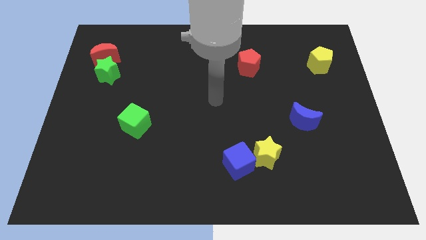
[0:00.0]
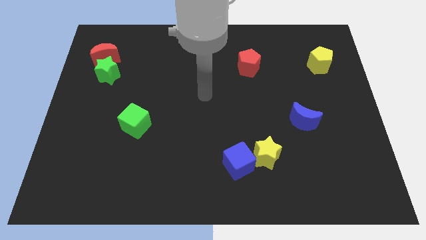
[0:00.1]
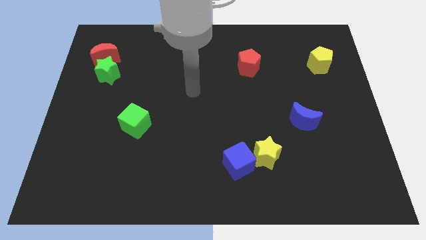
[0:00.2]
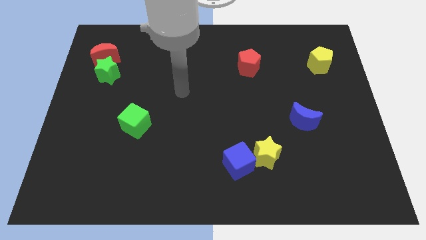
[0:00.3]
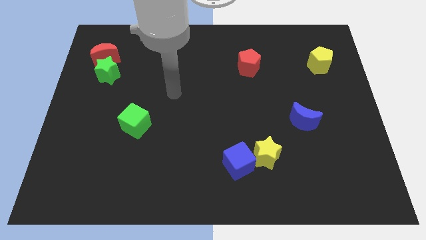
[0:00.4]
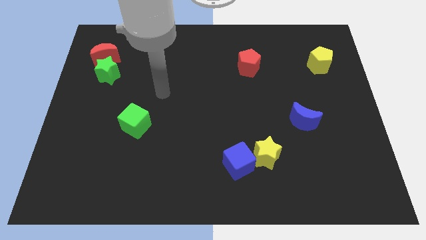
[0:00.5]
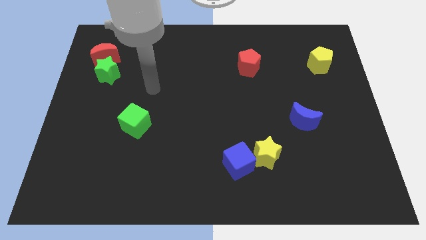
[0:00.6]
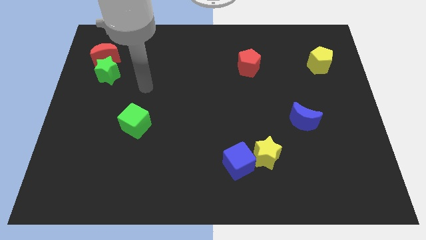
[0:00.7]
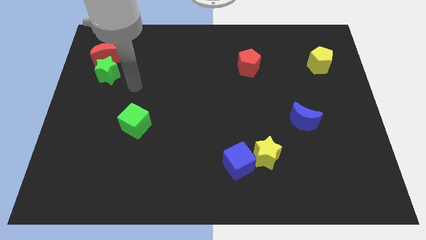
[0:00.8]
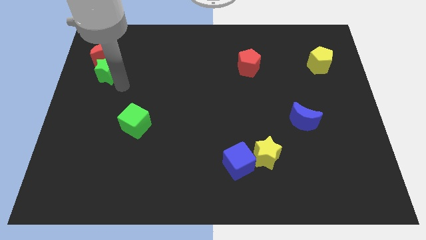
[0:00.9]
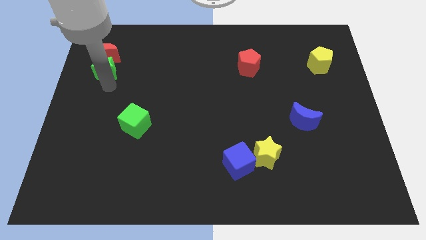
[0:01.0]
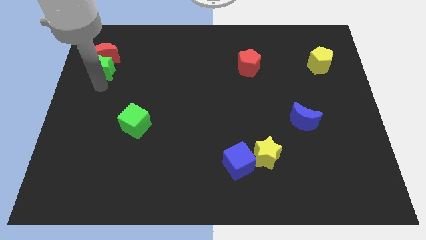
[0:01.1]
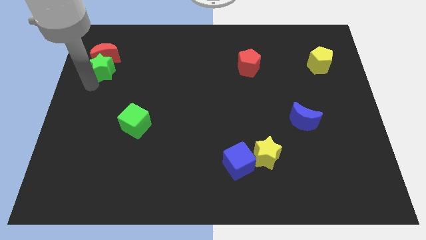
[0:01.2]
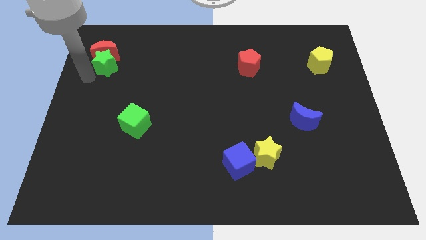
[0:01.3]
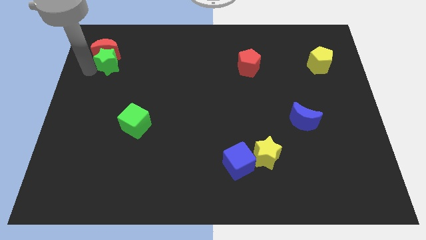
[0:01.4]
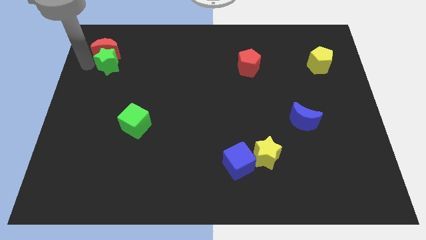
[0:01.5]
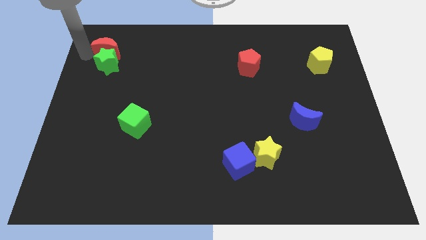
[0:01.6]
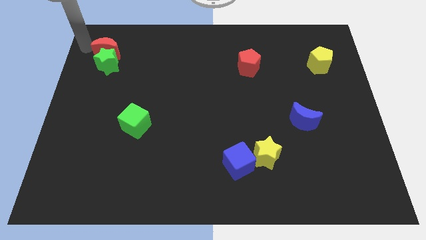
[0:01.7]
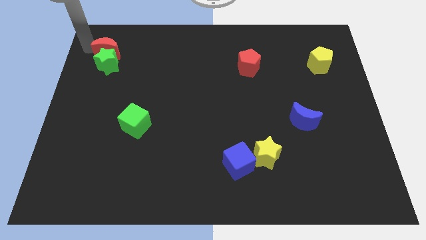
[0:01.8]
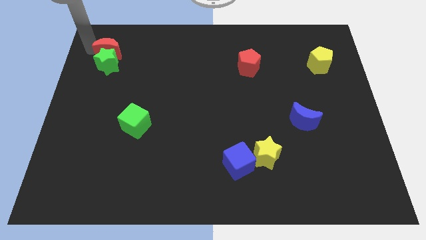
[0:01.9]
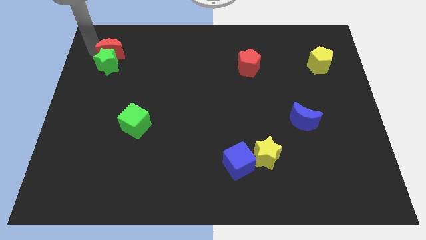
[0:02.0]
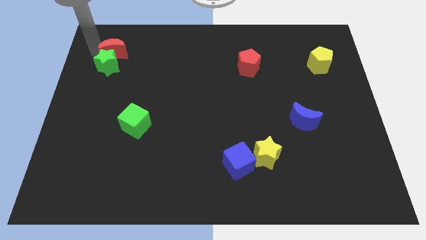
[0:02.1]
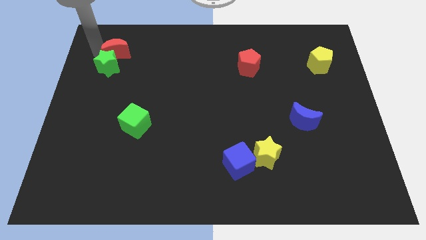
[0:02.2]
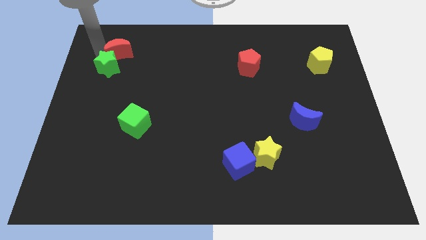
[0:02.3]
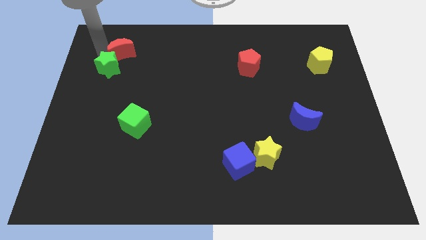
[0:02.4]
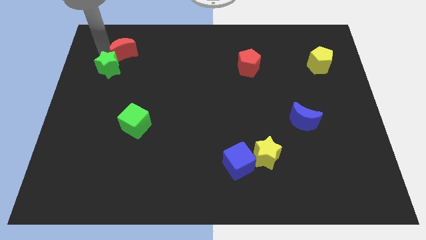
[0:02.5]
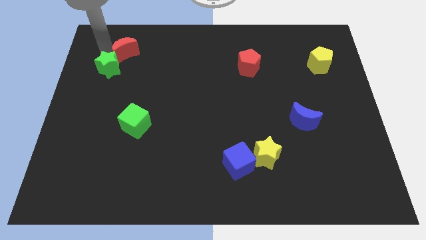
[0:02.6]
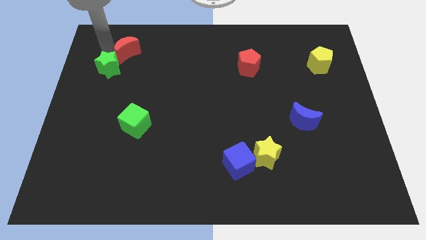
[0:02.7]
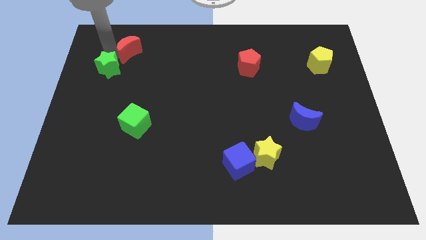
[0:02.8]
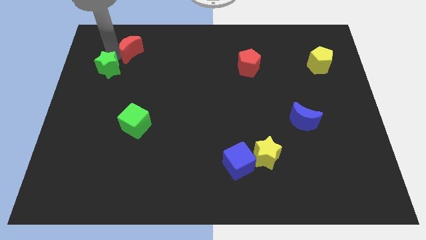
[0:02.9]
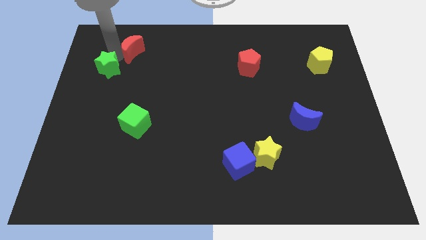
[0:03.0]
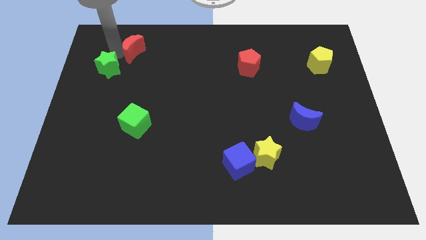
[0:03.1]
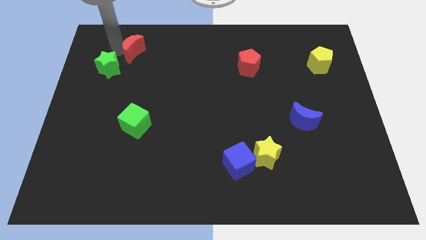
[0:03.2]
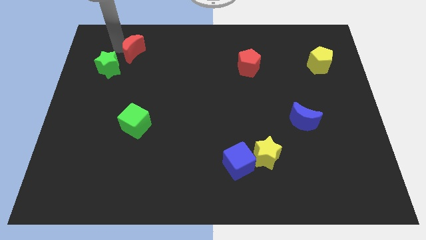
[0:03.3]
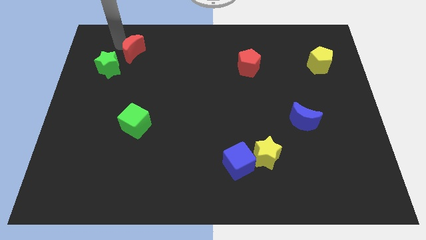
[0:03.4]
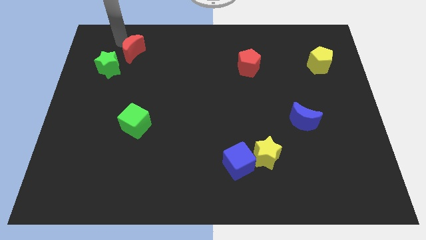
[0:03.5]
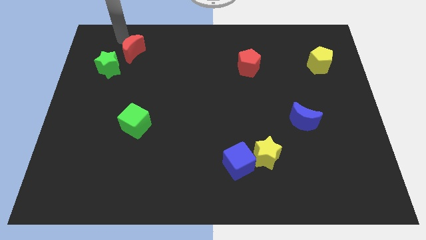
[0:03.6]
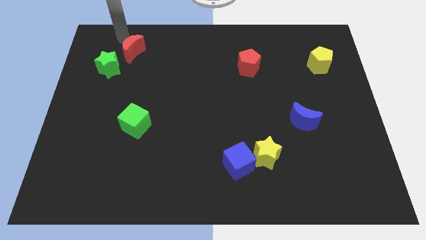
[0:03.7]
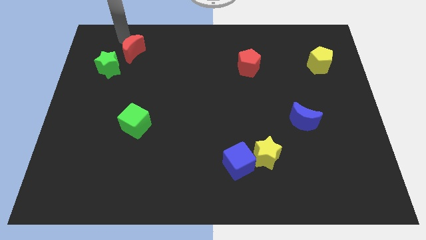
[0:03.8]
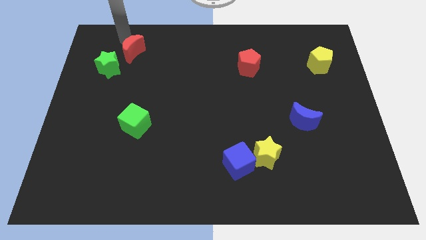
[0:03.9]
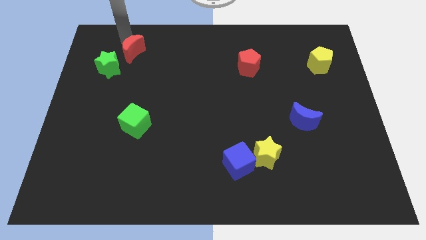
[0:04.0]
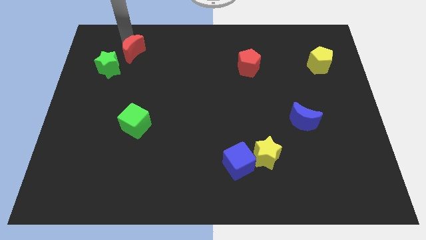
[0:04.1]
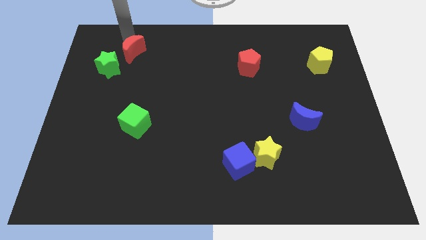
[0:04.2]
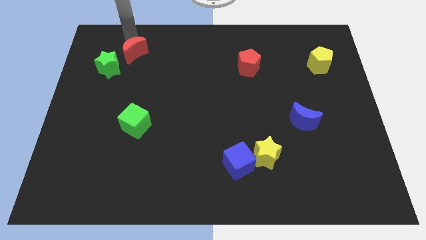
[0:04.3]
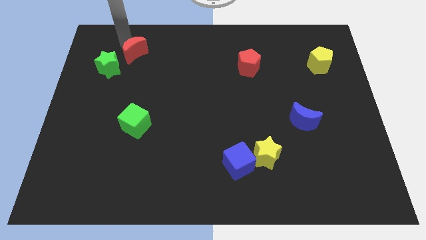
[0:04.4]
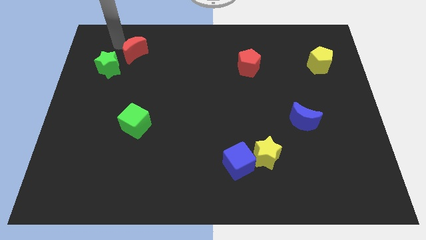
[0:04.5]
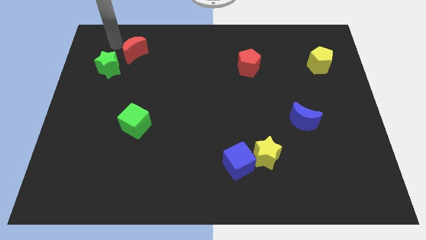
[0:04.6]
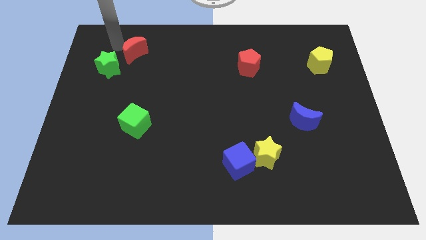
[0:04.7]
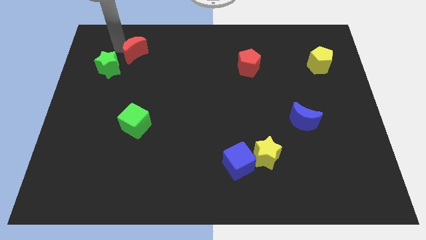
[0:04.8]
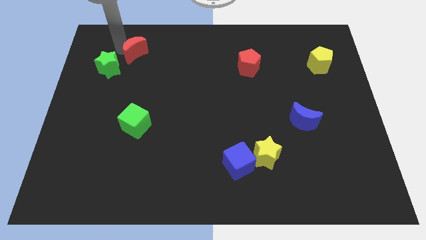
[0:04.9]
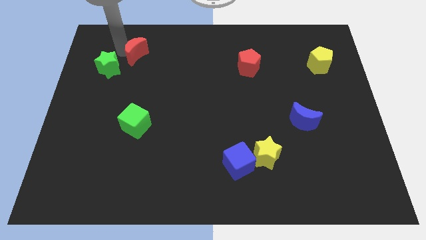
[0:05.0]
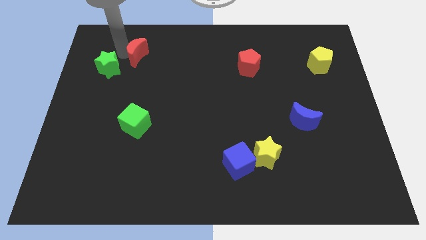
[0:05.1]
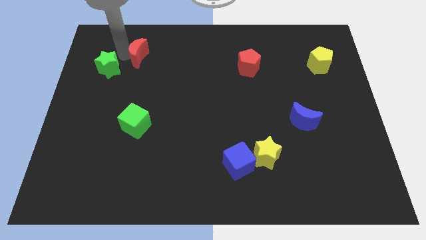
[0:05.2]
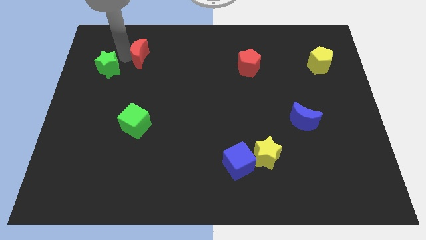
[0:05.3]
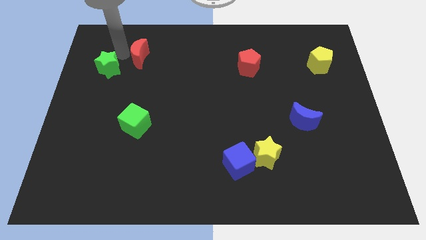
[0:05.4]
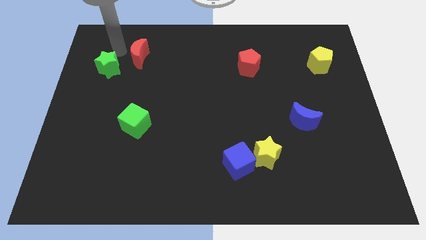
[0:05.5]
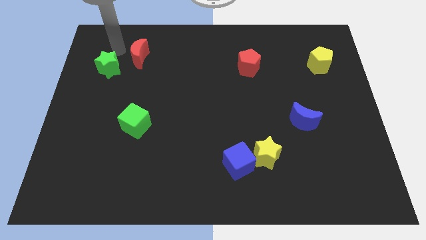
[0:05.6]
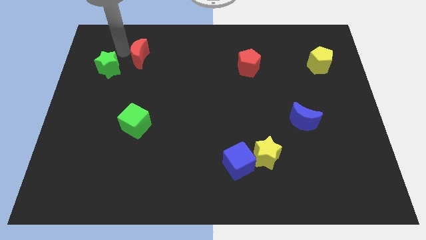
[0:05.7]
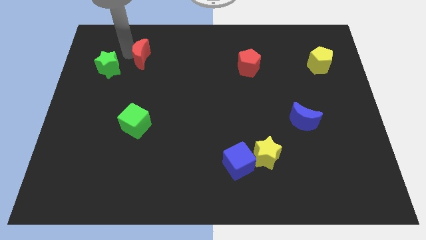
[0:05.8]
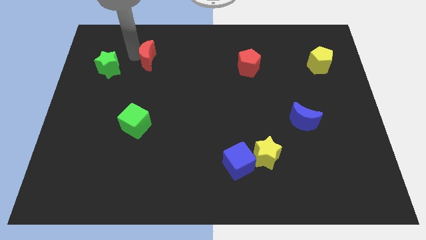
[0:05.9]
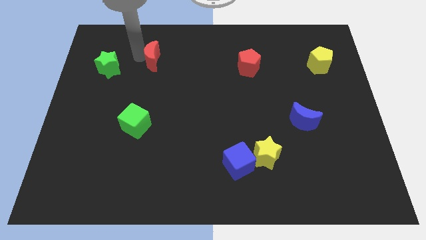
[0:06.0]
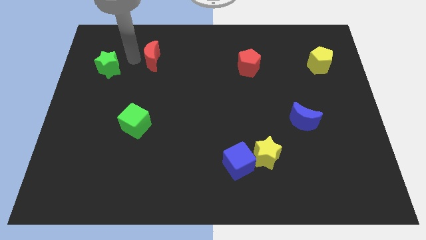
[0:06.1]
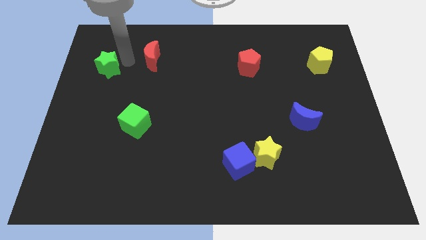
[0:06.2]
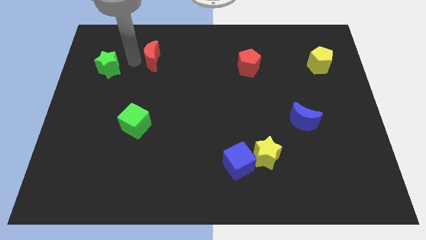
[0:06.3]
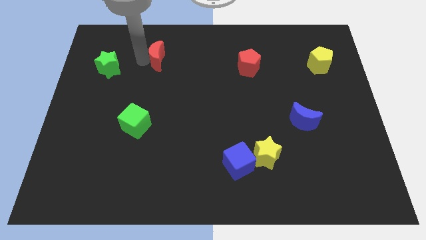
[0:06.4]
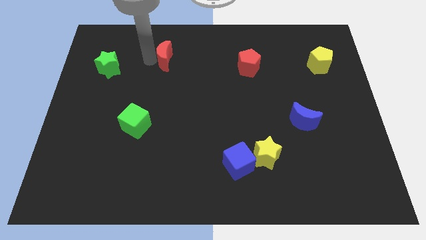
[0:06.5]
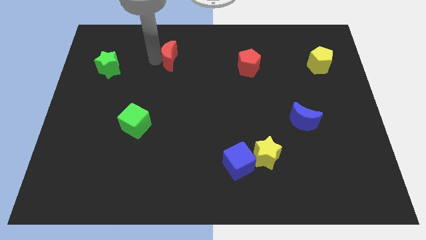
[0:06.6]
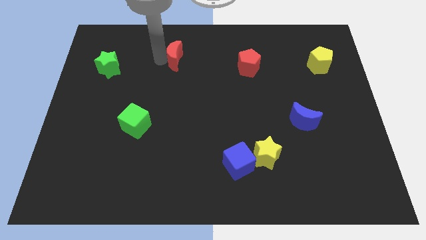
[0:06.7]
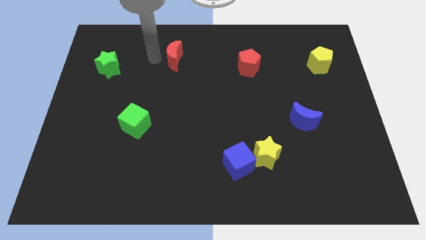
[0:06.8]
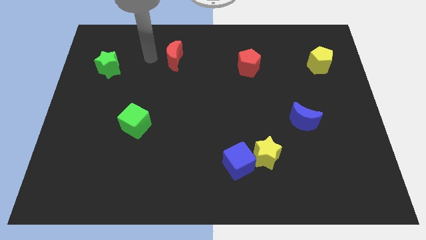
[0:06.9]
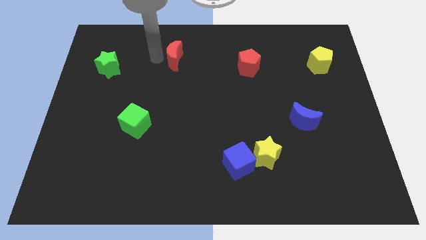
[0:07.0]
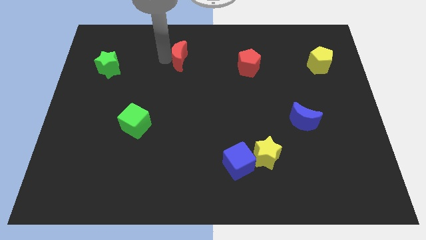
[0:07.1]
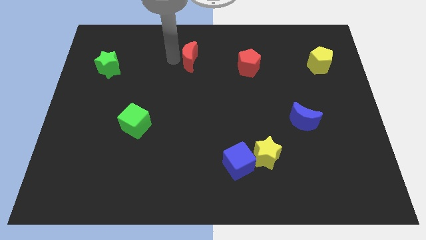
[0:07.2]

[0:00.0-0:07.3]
push the red moon to the right

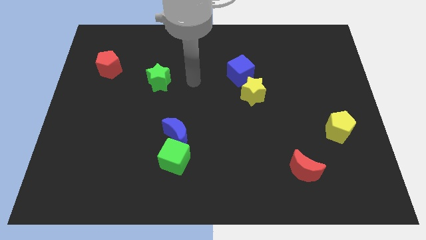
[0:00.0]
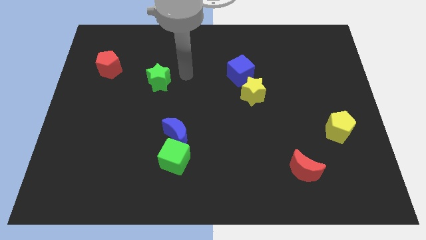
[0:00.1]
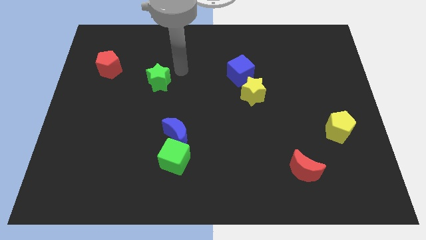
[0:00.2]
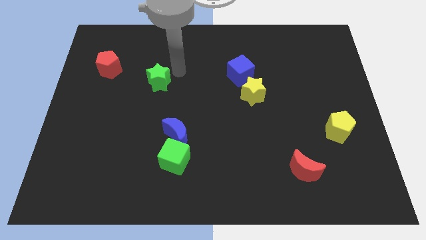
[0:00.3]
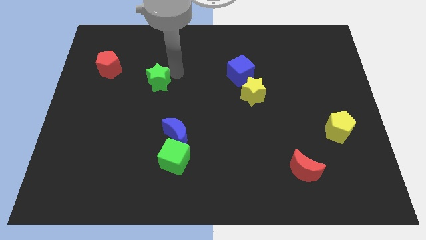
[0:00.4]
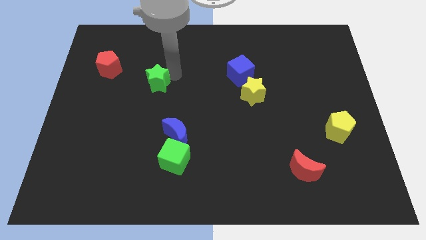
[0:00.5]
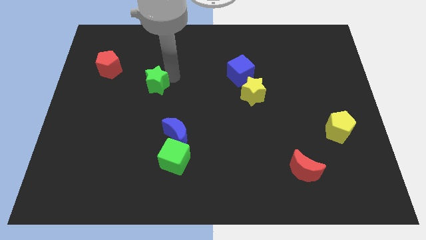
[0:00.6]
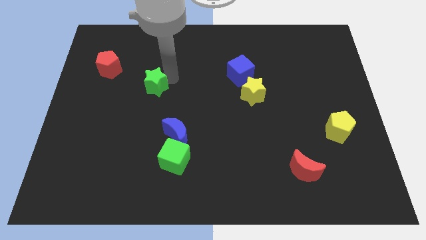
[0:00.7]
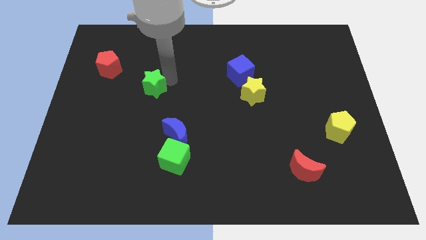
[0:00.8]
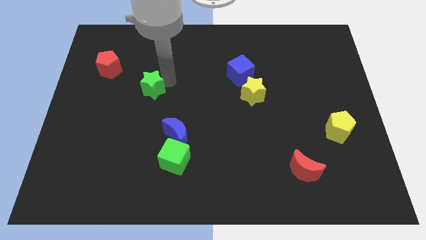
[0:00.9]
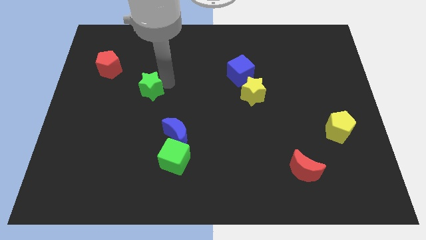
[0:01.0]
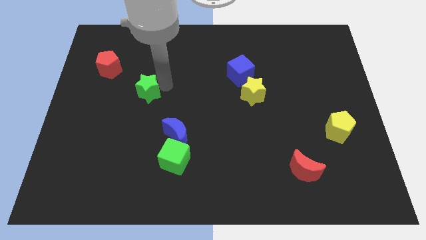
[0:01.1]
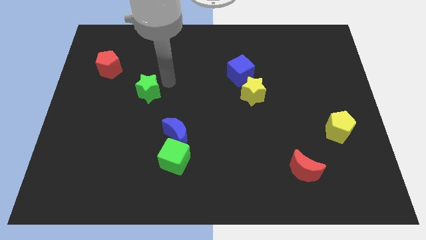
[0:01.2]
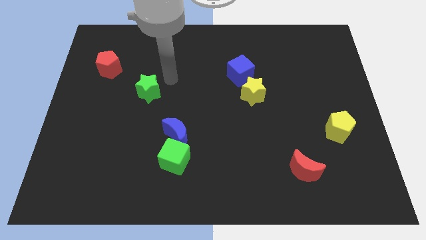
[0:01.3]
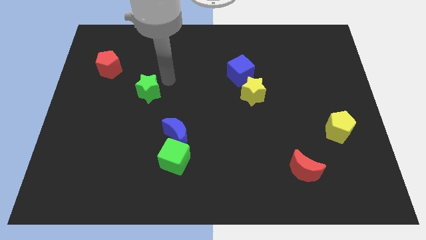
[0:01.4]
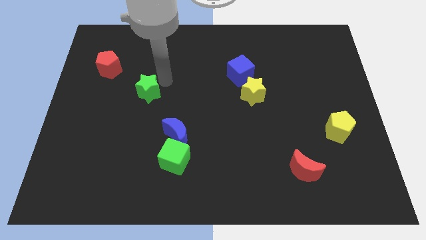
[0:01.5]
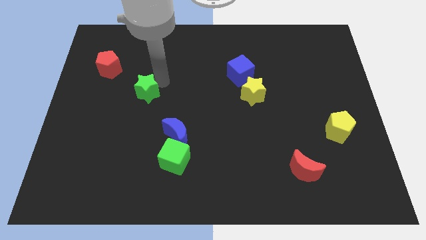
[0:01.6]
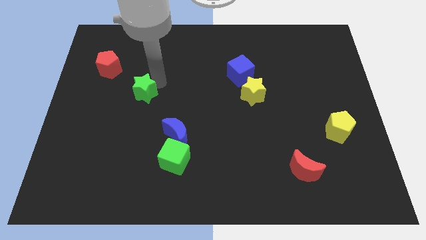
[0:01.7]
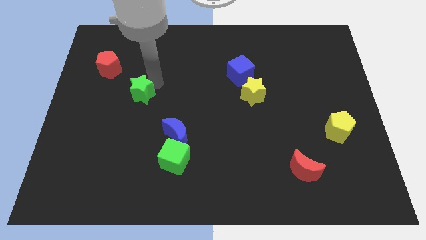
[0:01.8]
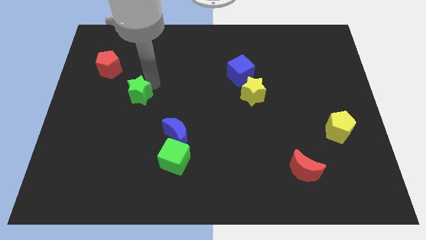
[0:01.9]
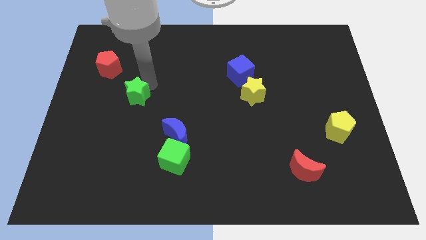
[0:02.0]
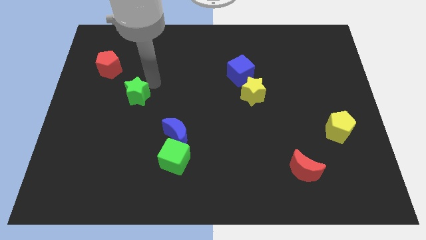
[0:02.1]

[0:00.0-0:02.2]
slide the green star slightly down and left diagonally
